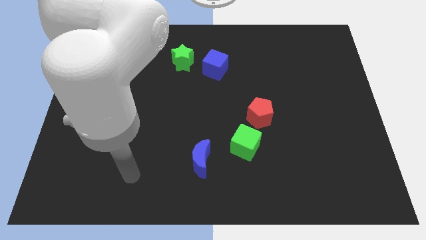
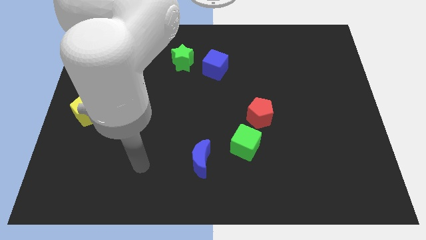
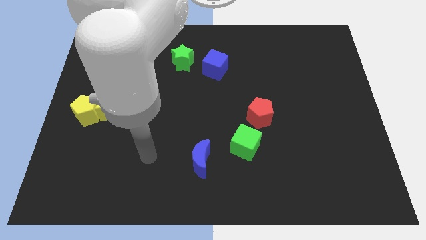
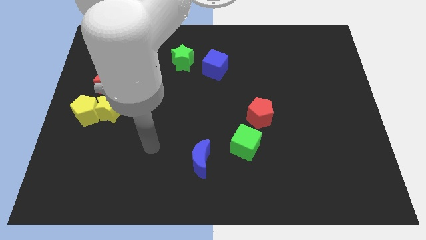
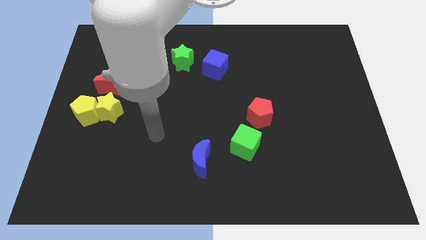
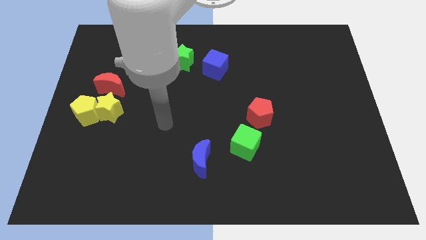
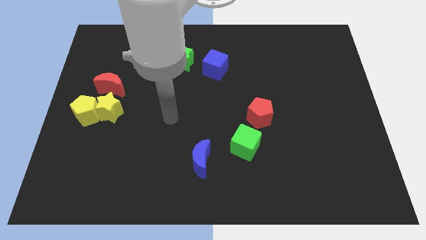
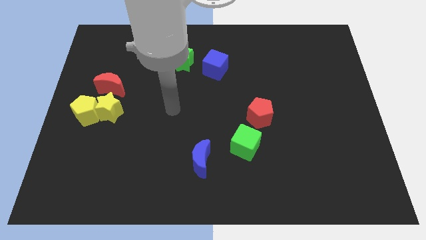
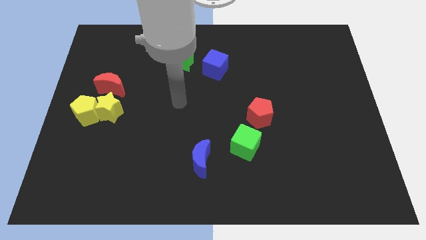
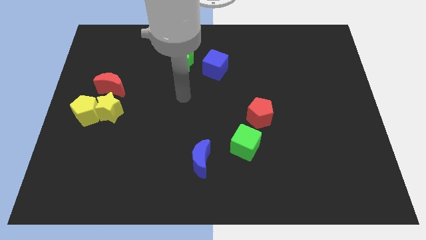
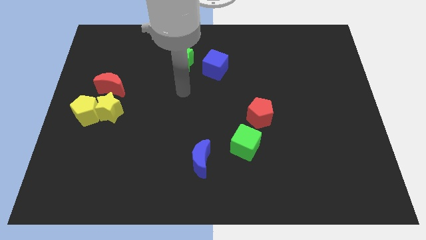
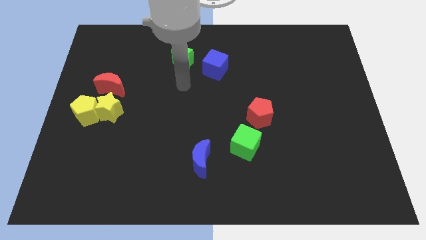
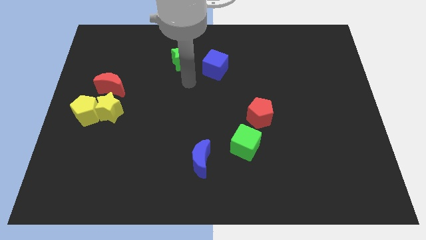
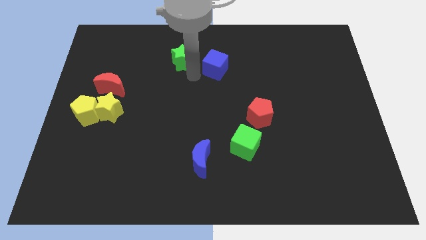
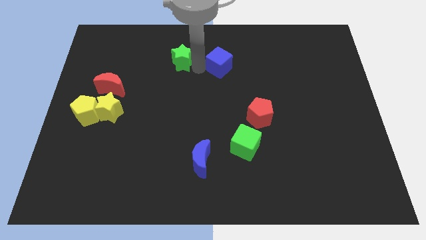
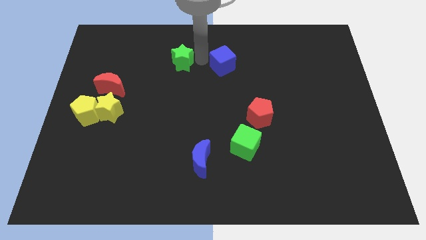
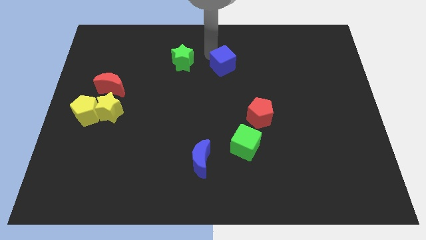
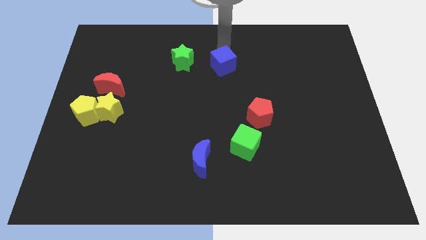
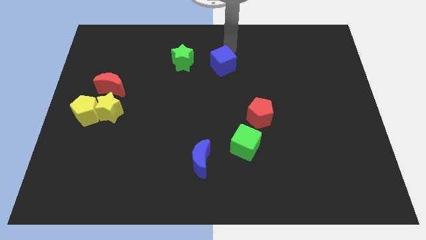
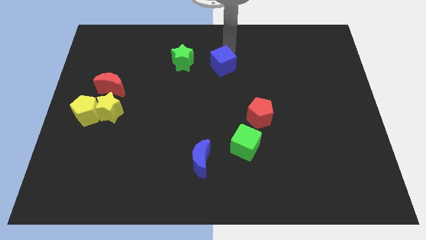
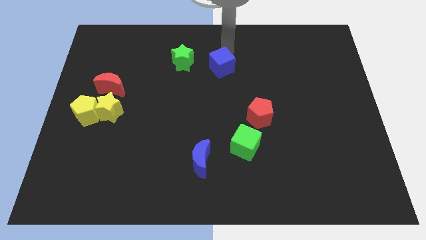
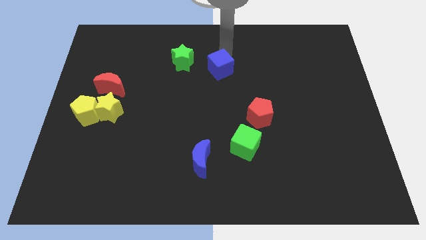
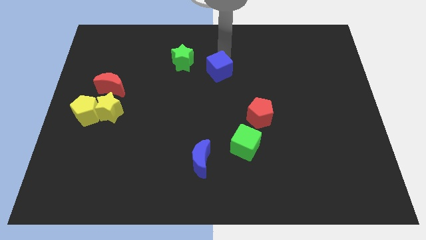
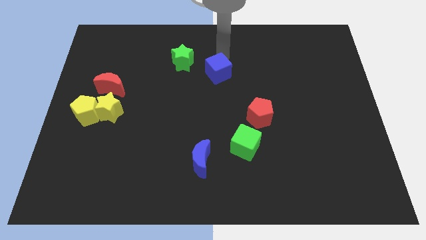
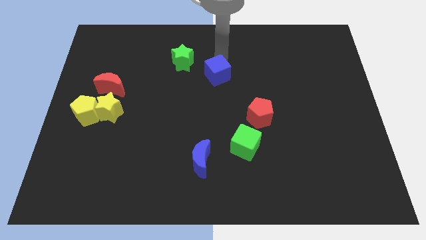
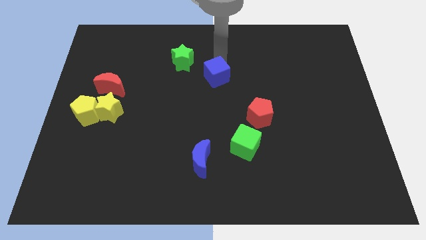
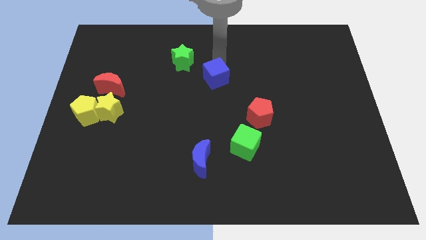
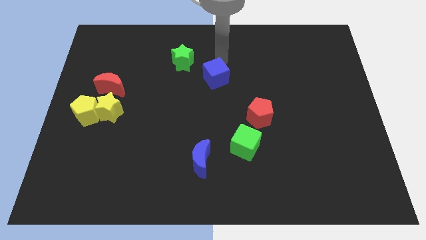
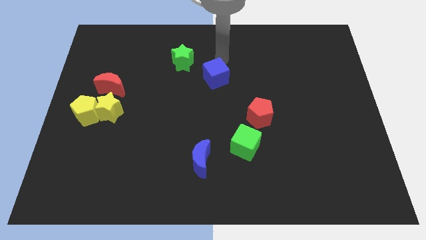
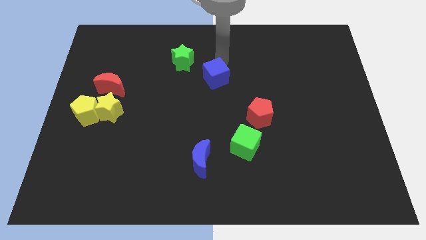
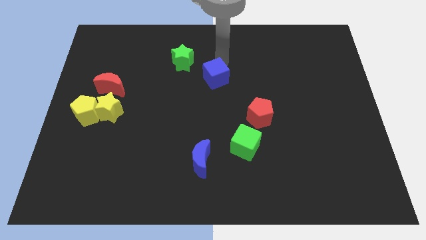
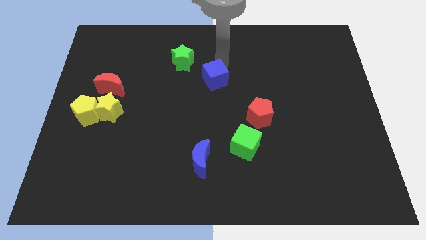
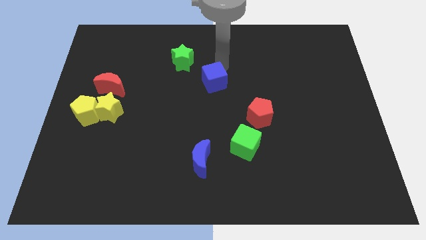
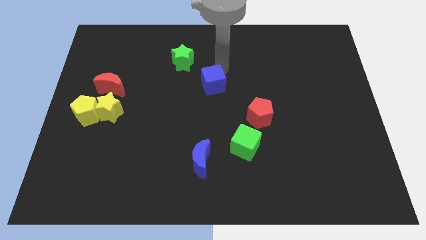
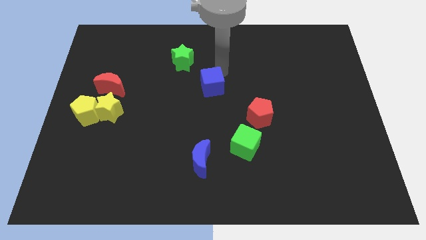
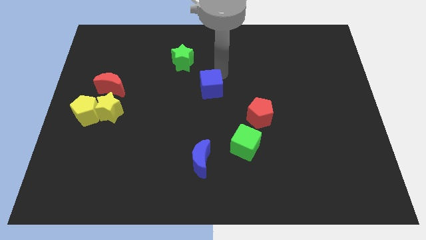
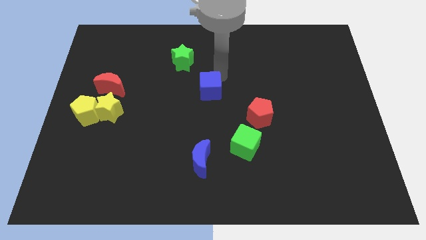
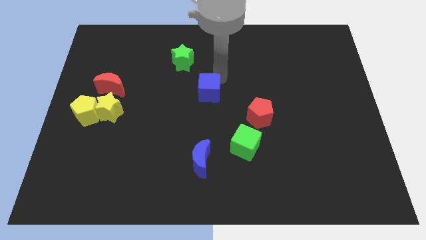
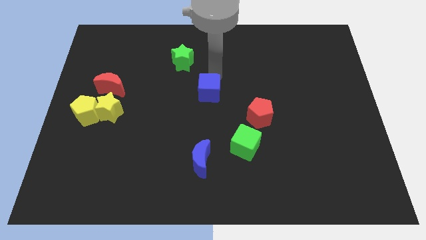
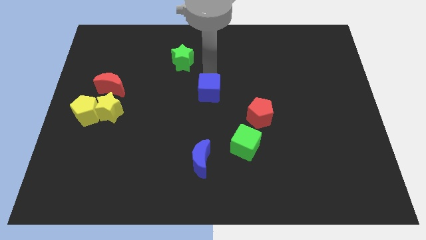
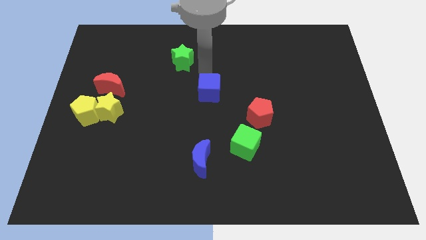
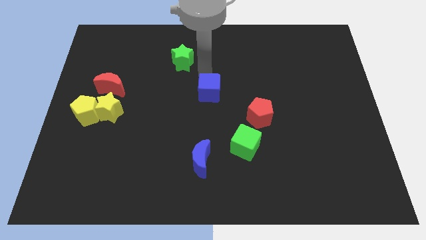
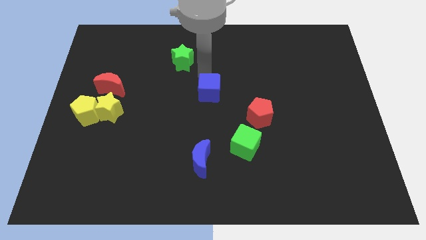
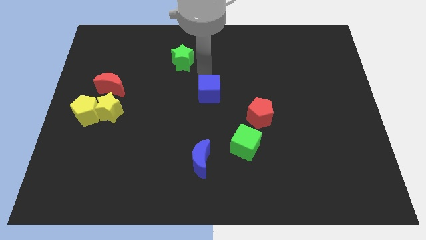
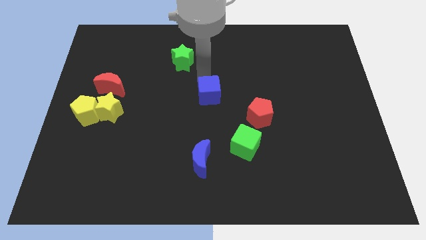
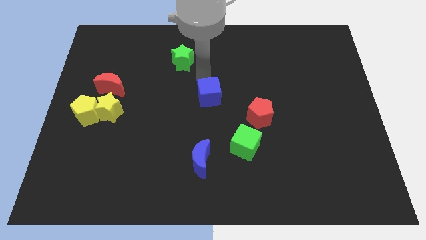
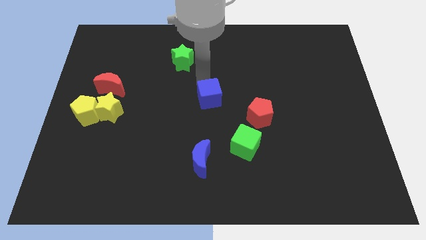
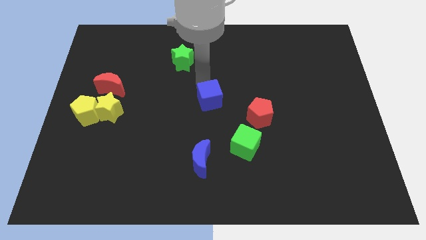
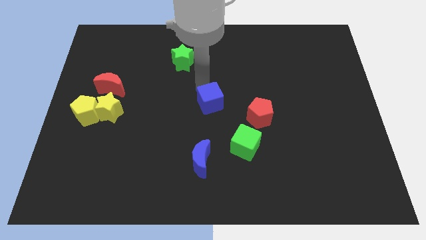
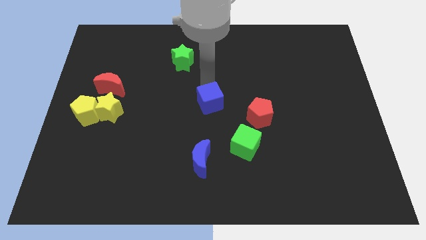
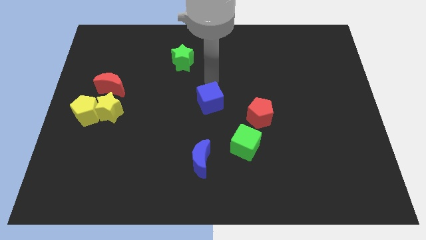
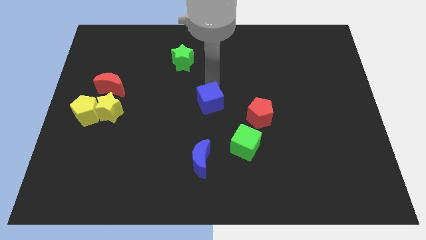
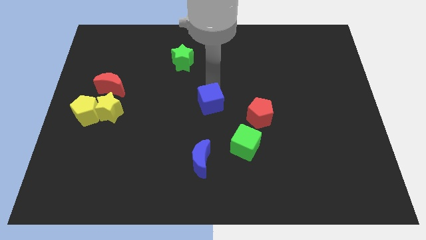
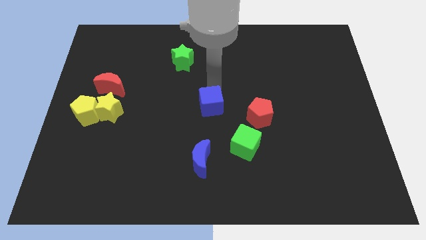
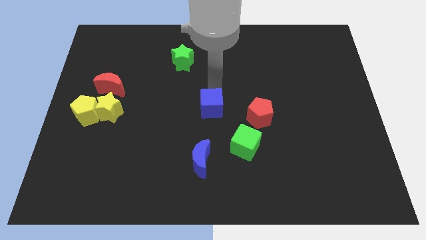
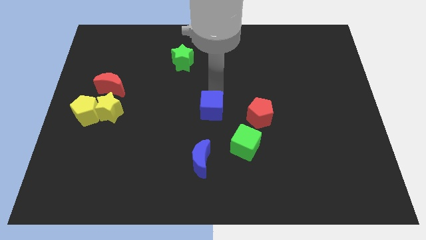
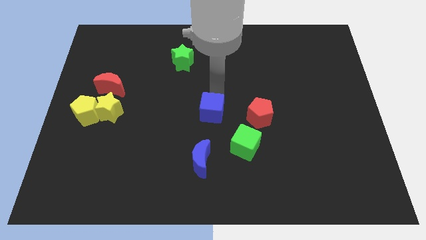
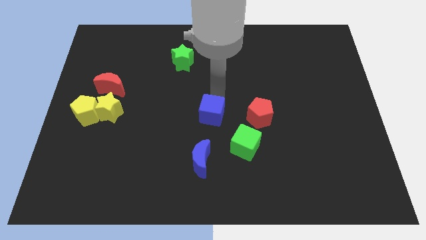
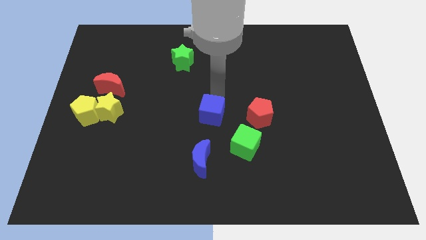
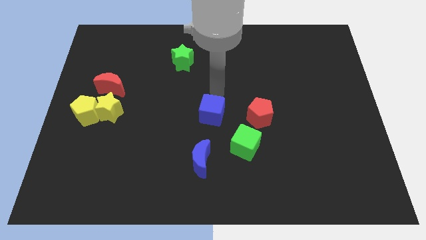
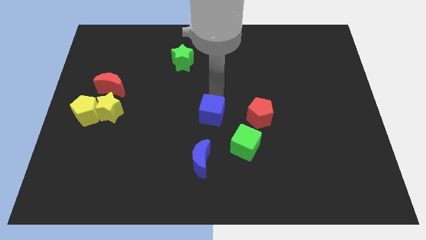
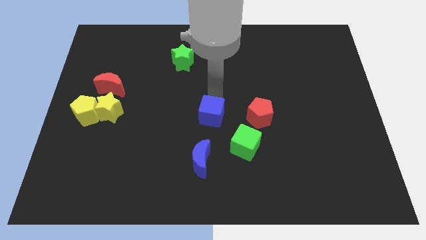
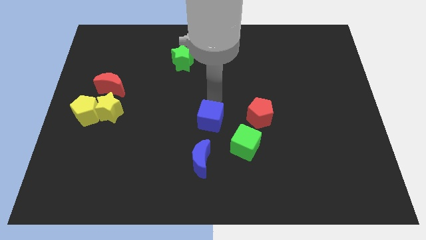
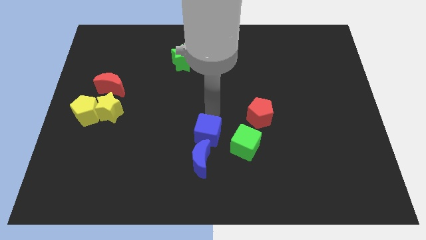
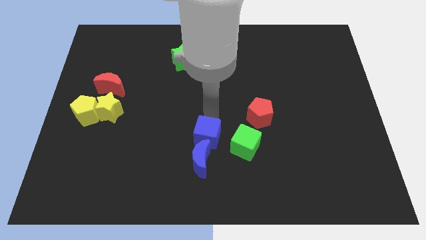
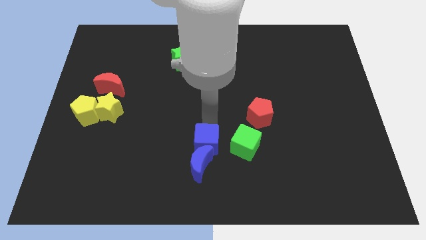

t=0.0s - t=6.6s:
move the blue cube close to the blue moon

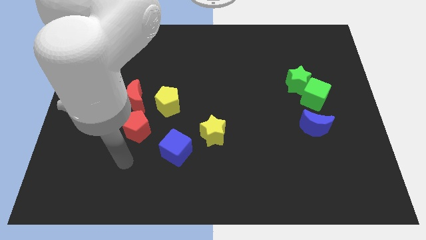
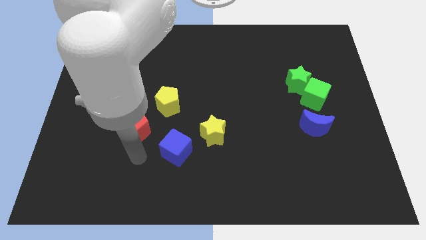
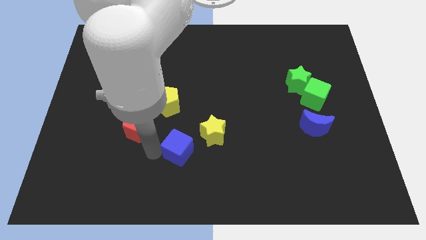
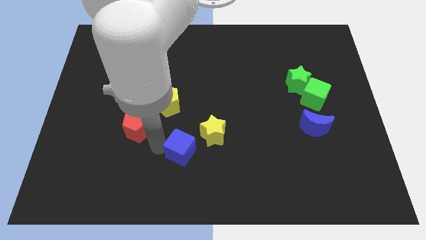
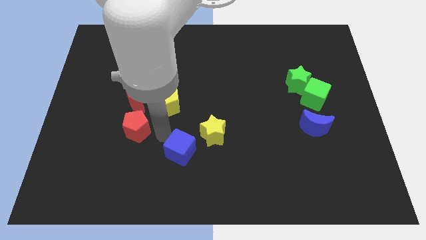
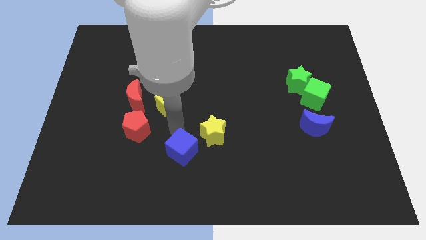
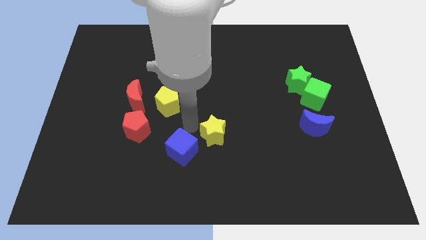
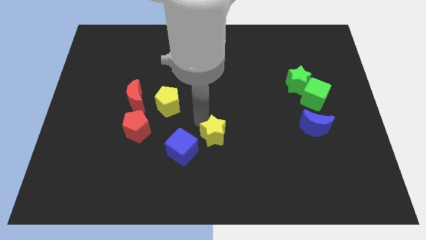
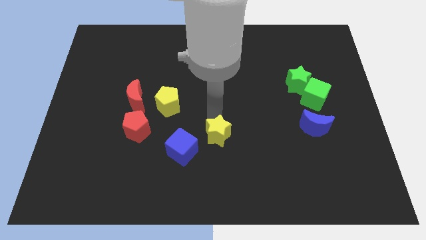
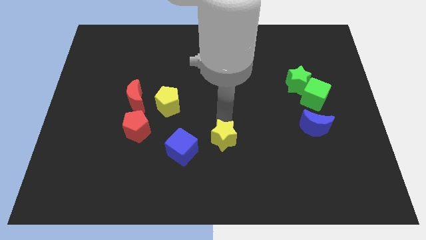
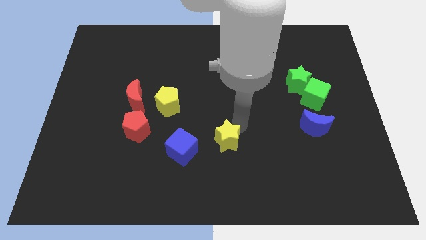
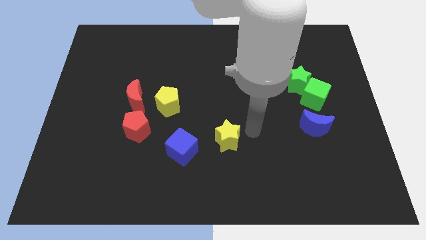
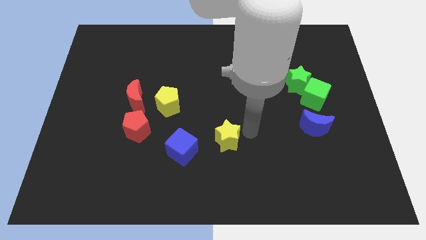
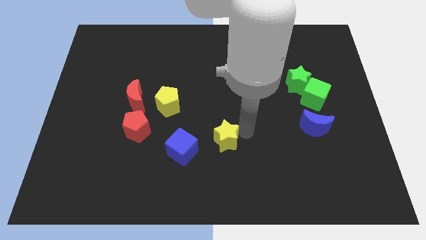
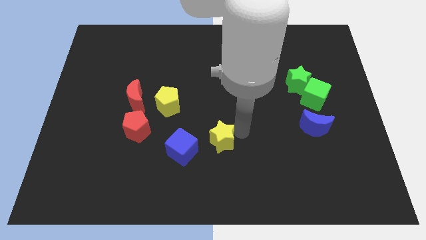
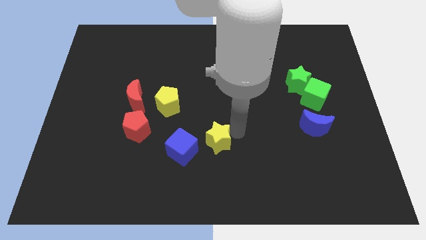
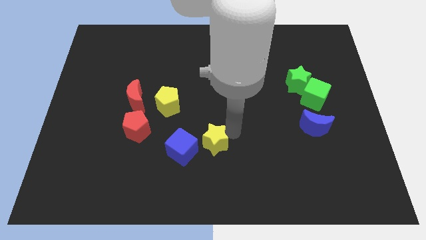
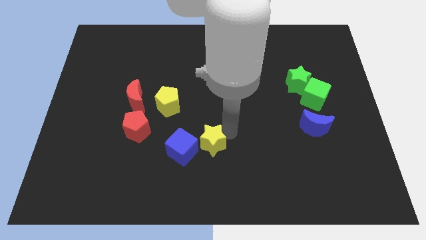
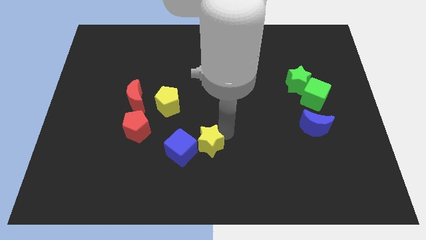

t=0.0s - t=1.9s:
push the yellow star close to the blue cube
